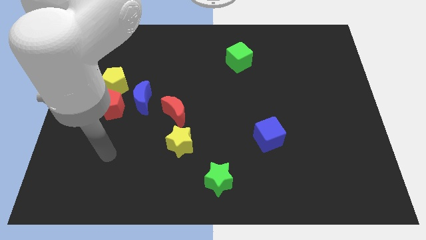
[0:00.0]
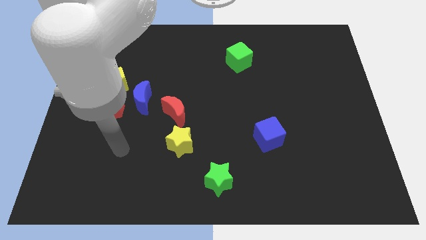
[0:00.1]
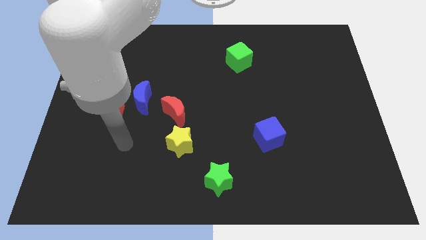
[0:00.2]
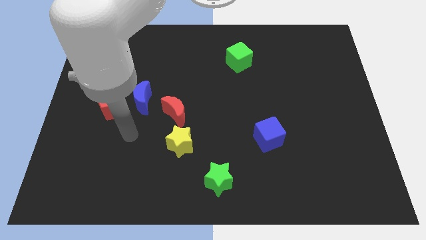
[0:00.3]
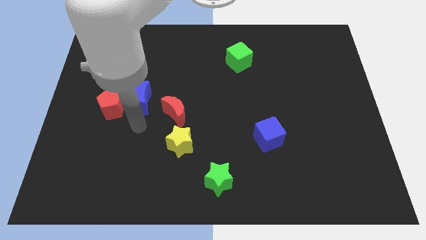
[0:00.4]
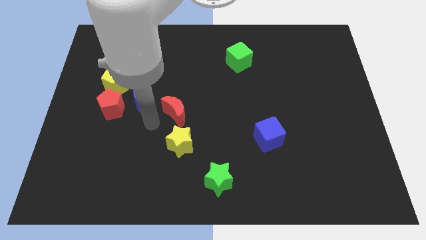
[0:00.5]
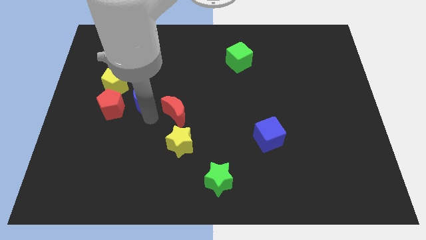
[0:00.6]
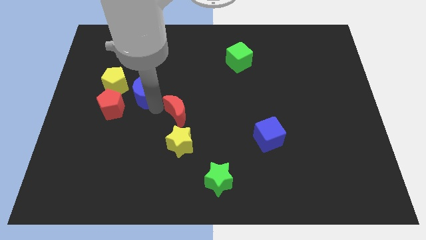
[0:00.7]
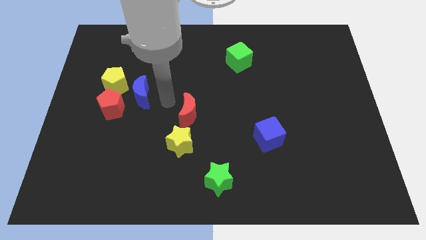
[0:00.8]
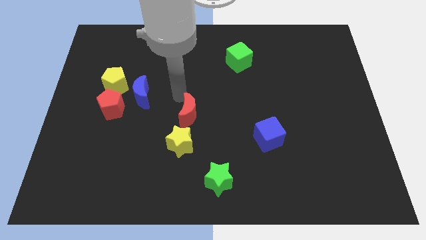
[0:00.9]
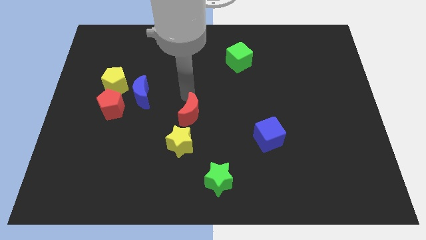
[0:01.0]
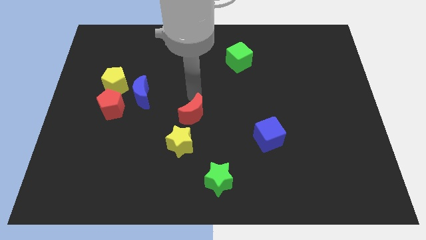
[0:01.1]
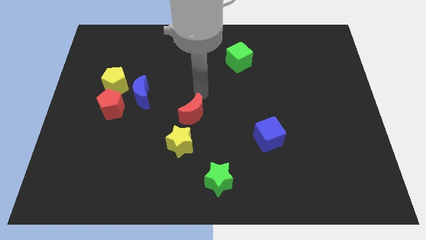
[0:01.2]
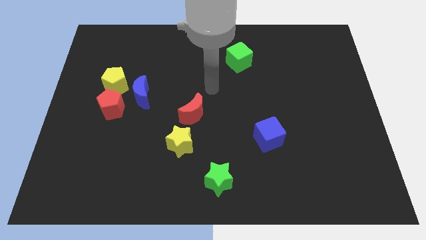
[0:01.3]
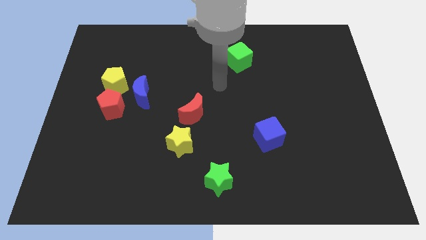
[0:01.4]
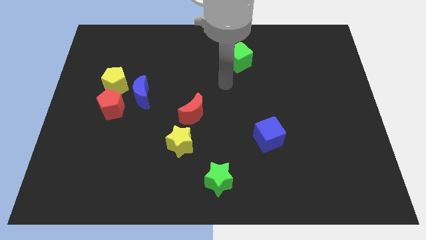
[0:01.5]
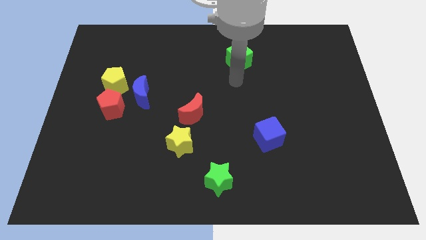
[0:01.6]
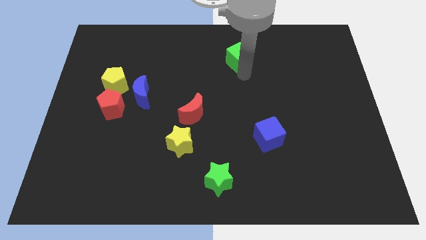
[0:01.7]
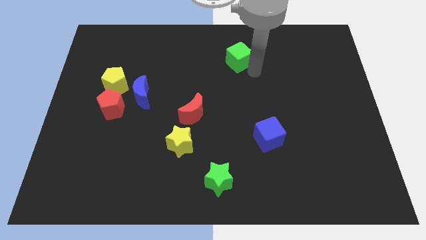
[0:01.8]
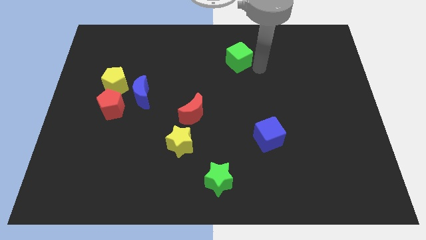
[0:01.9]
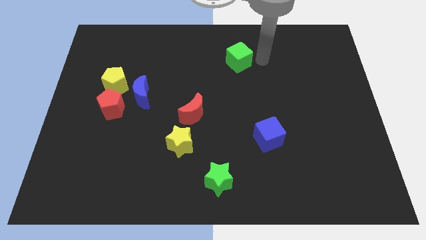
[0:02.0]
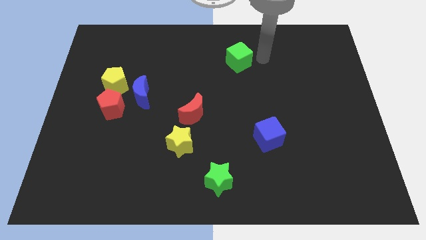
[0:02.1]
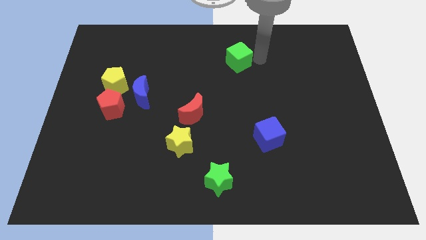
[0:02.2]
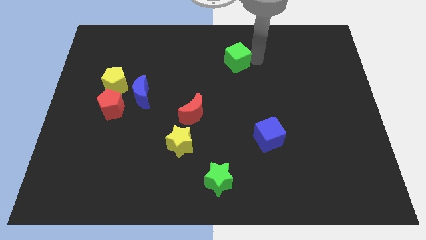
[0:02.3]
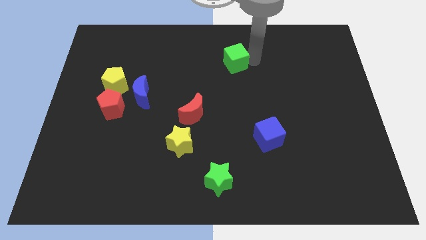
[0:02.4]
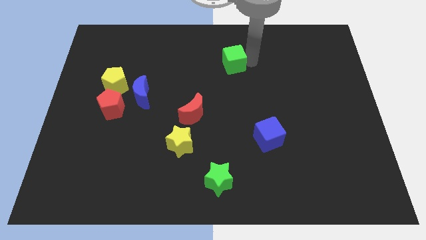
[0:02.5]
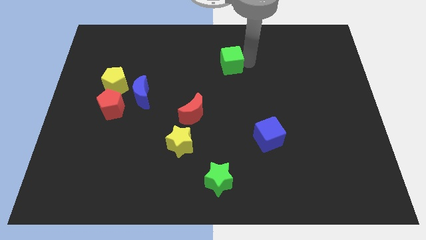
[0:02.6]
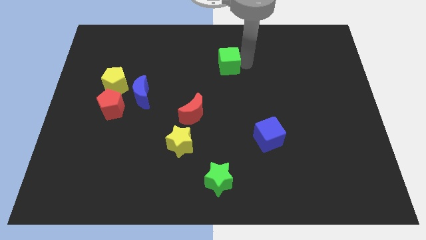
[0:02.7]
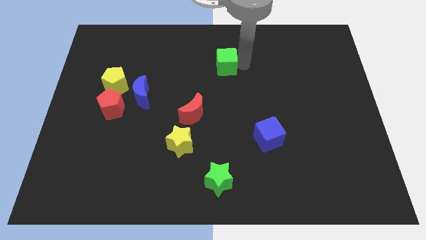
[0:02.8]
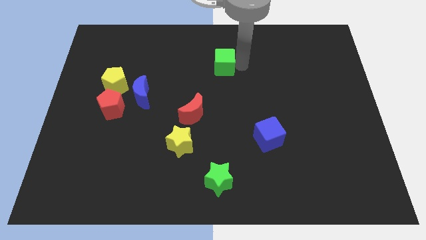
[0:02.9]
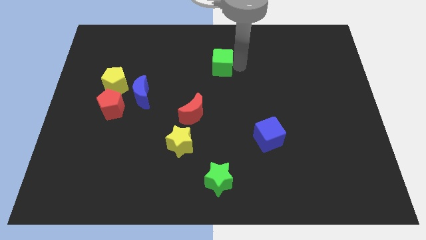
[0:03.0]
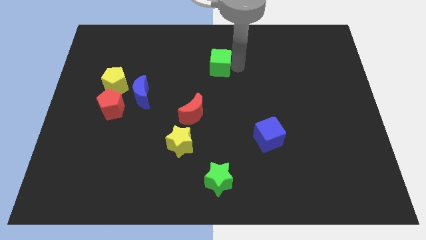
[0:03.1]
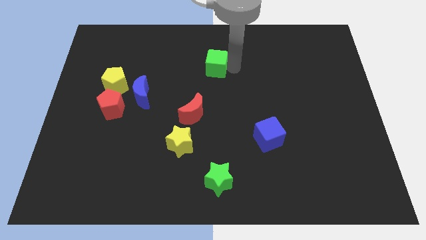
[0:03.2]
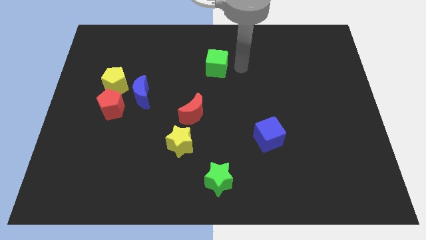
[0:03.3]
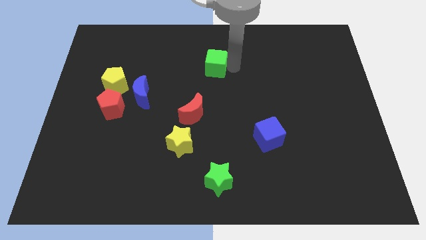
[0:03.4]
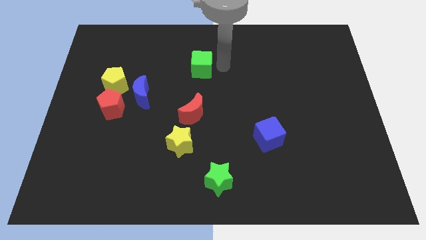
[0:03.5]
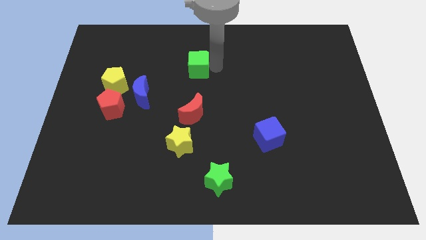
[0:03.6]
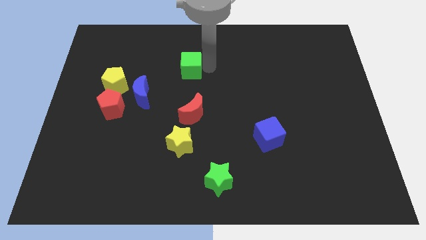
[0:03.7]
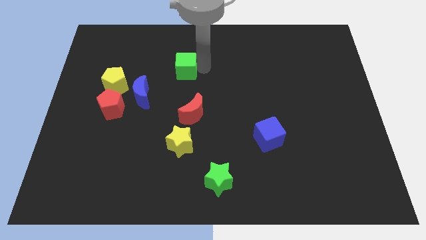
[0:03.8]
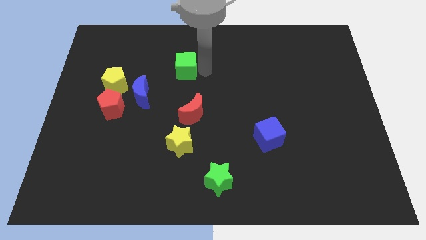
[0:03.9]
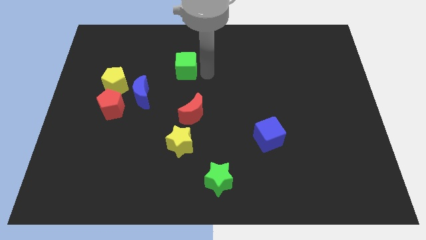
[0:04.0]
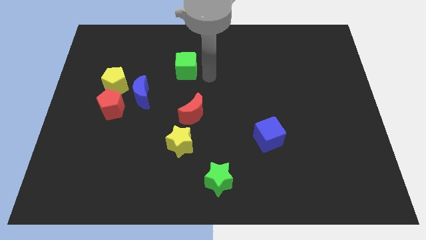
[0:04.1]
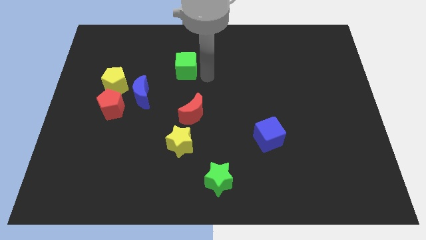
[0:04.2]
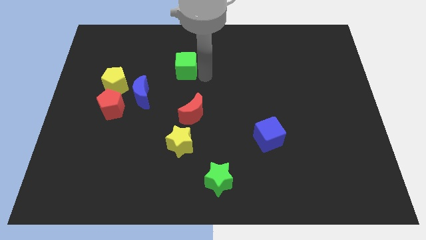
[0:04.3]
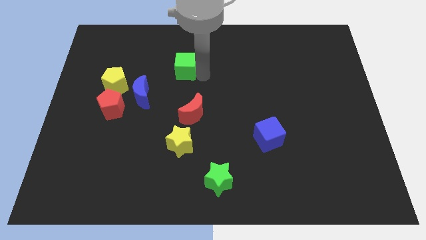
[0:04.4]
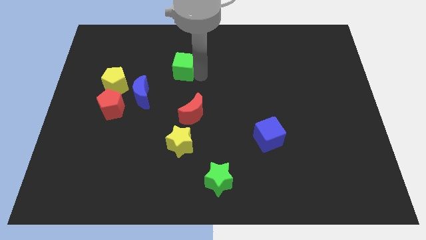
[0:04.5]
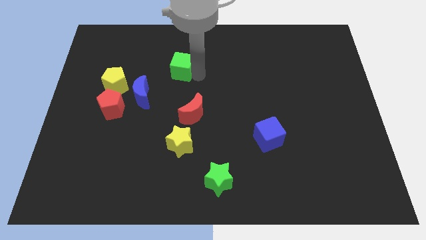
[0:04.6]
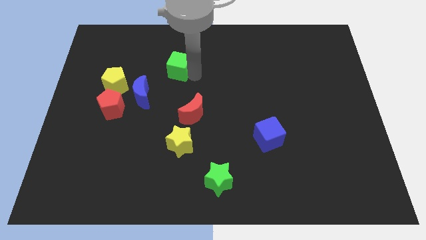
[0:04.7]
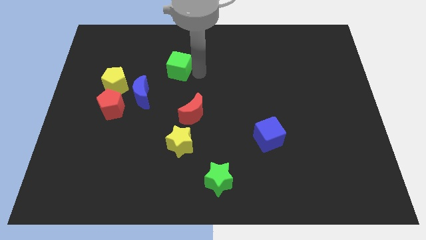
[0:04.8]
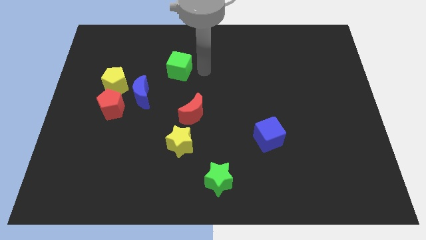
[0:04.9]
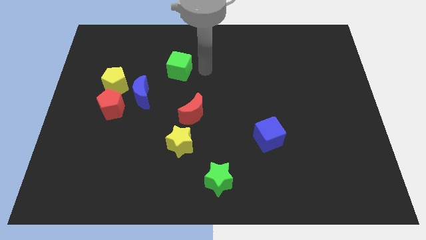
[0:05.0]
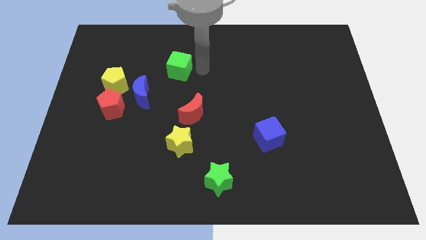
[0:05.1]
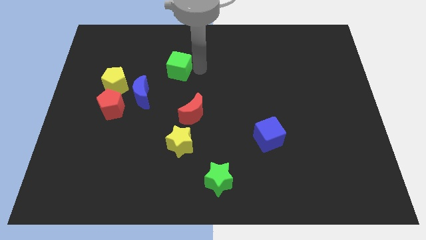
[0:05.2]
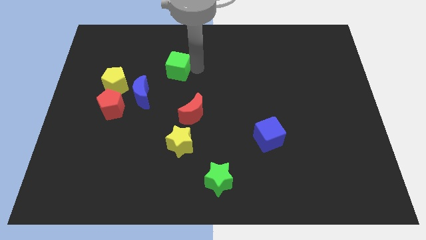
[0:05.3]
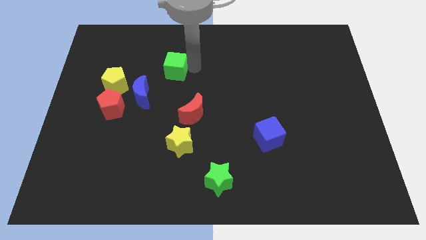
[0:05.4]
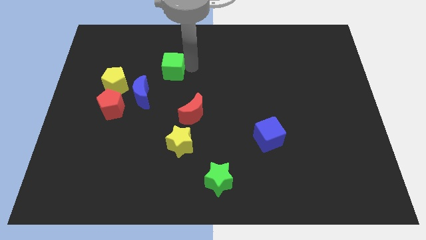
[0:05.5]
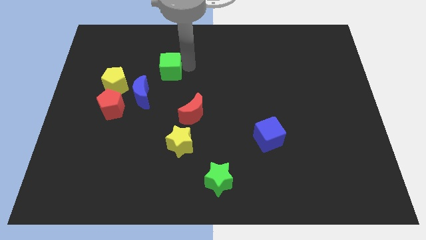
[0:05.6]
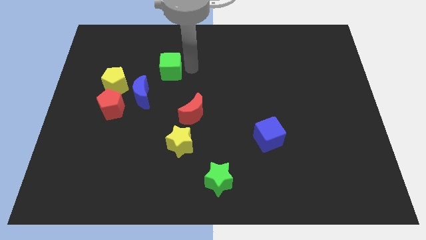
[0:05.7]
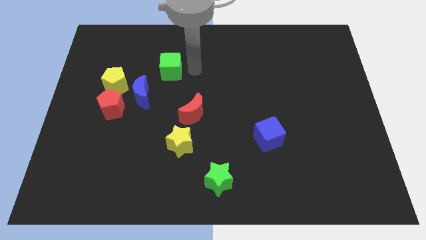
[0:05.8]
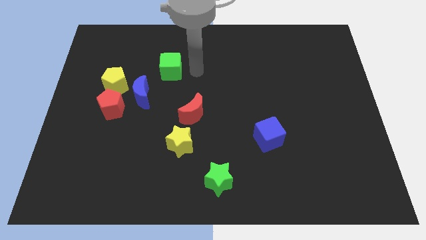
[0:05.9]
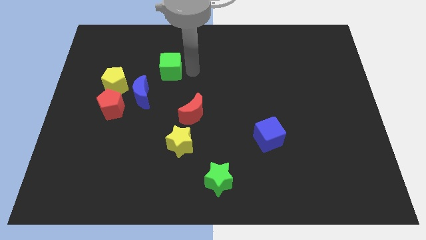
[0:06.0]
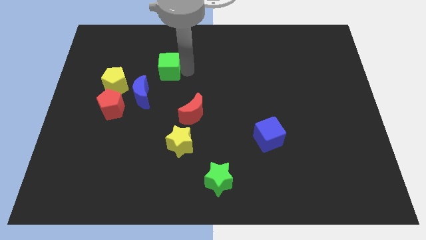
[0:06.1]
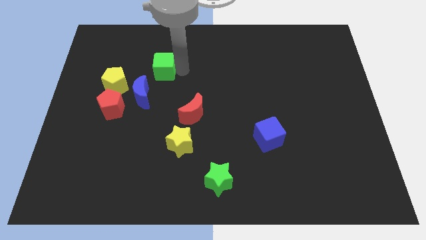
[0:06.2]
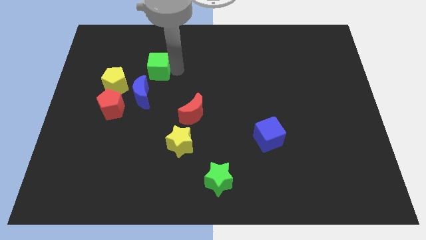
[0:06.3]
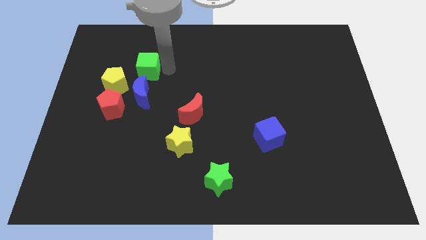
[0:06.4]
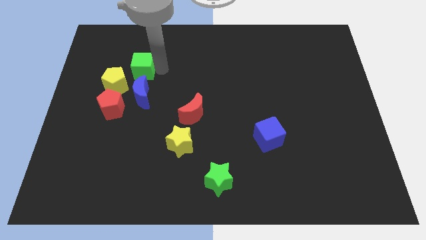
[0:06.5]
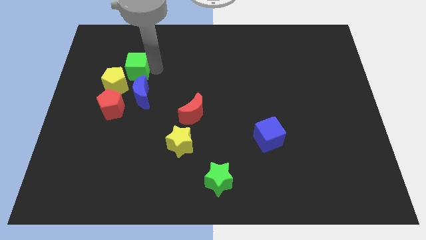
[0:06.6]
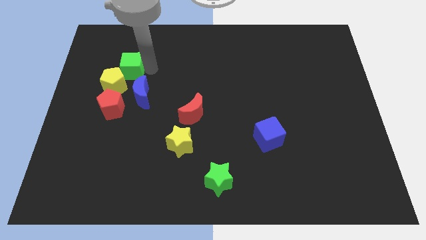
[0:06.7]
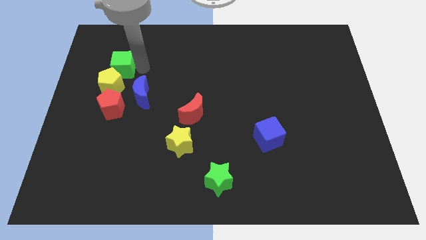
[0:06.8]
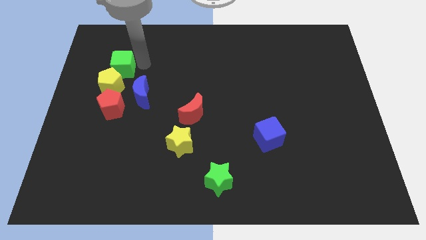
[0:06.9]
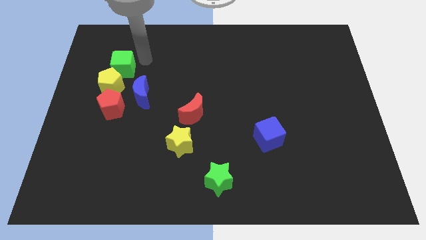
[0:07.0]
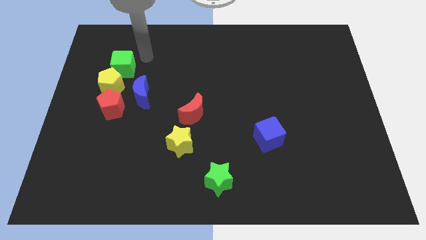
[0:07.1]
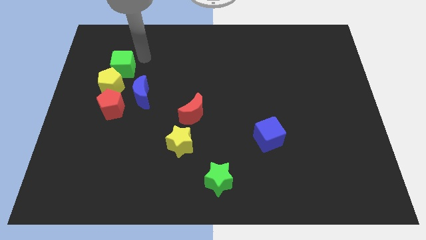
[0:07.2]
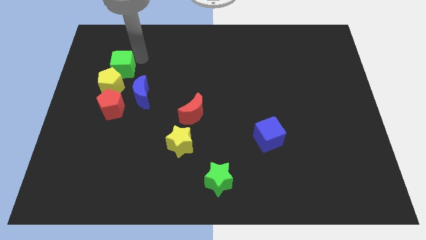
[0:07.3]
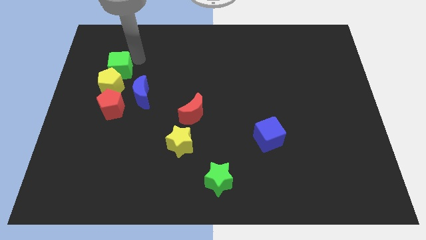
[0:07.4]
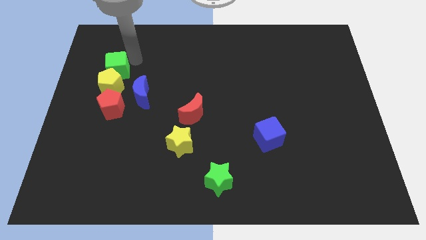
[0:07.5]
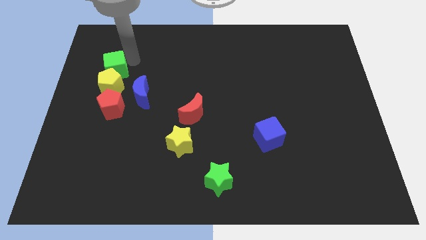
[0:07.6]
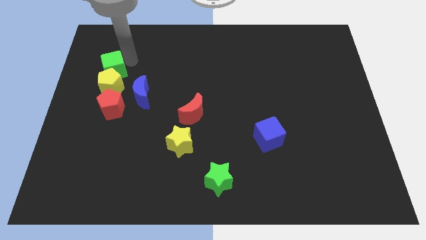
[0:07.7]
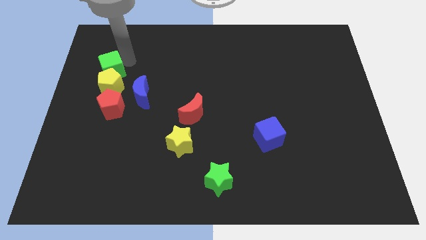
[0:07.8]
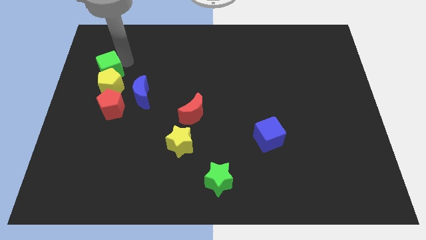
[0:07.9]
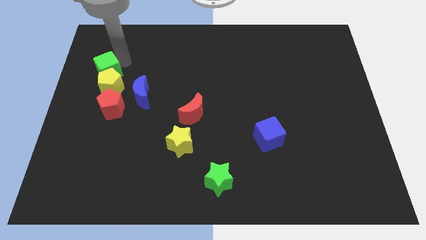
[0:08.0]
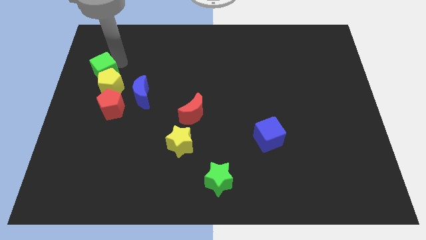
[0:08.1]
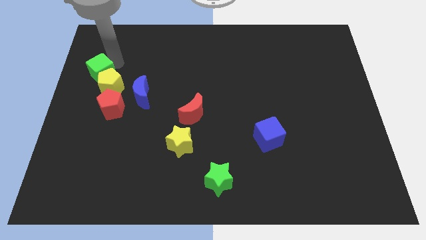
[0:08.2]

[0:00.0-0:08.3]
move the green cube to the left side
